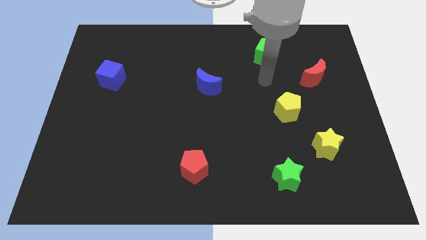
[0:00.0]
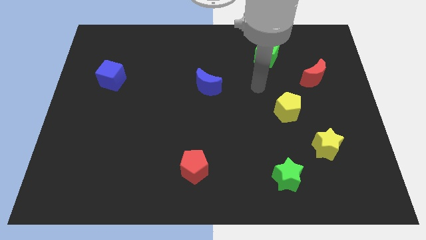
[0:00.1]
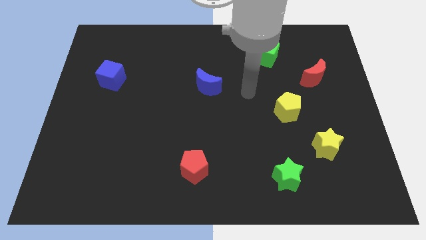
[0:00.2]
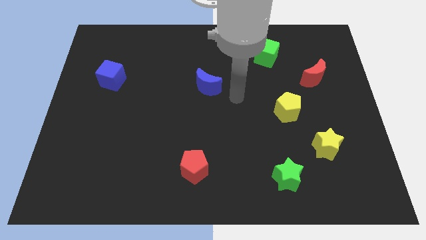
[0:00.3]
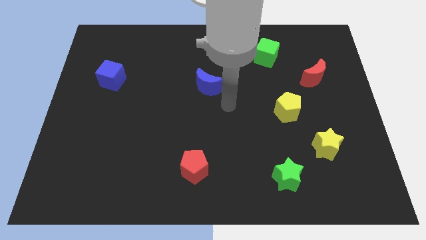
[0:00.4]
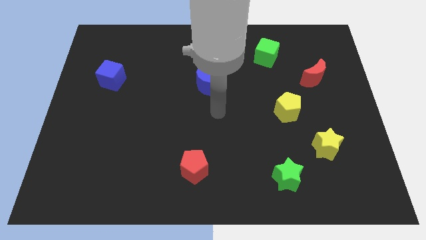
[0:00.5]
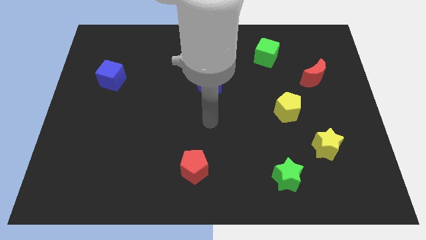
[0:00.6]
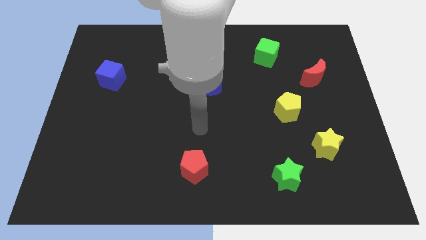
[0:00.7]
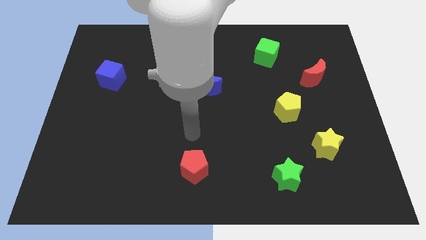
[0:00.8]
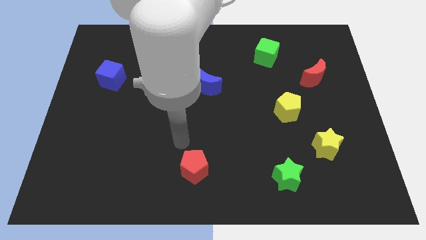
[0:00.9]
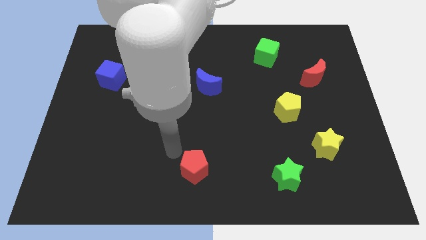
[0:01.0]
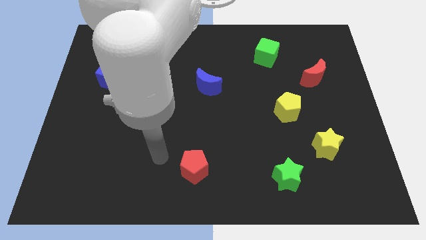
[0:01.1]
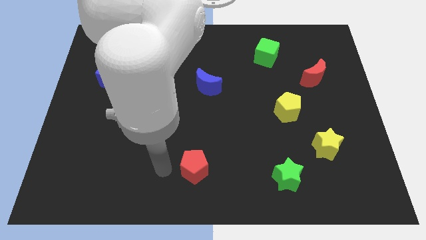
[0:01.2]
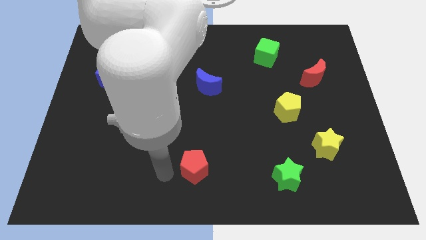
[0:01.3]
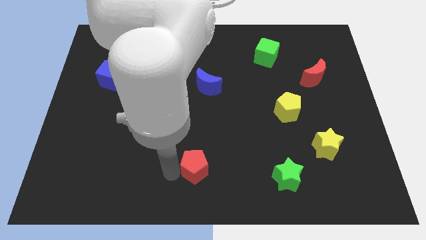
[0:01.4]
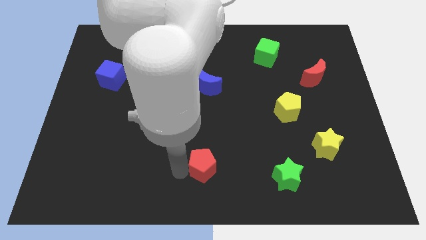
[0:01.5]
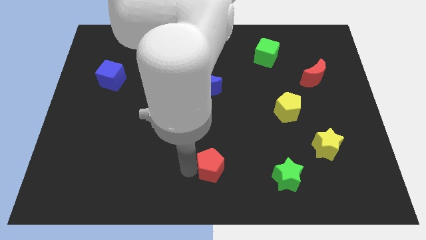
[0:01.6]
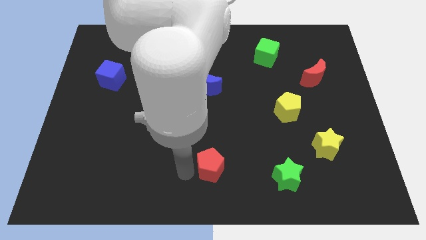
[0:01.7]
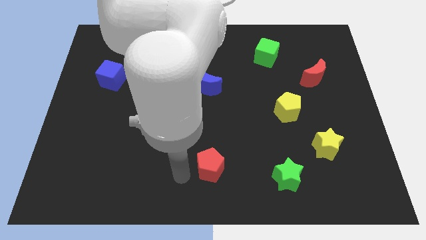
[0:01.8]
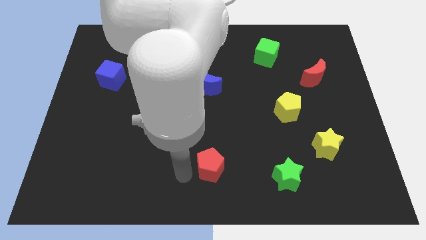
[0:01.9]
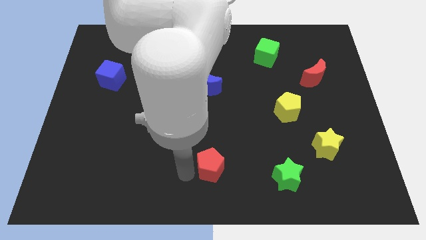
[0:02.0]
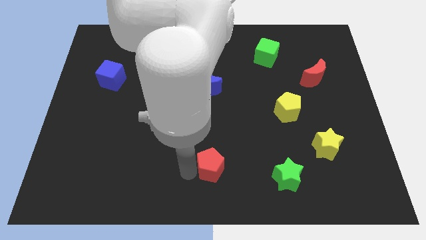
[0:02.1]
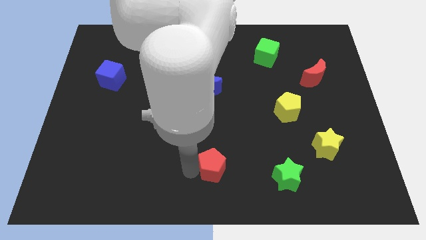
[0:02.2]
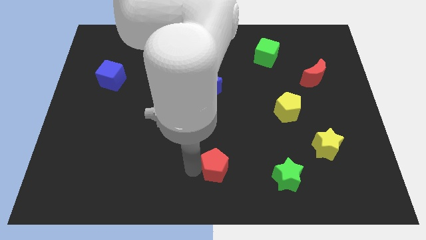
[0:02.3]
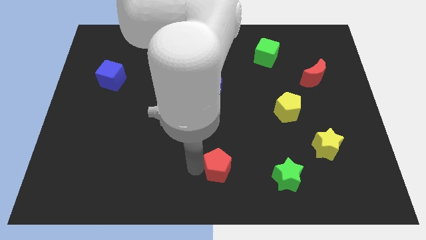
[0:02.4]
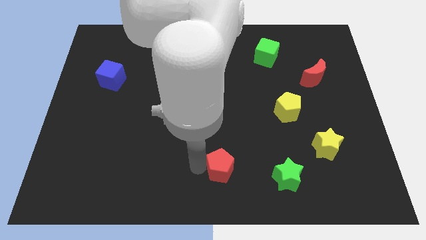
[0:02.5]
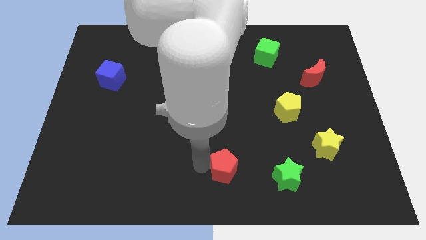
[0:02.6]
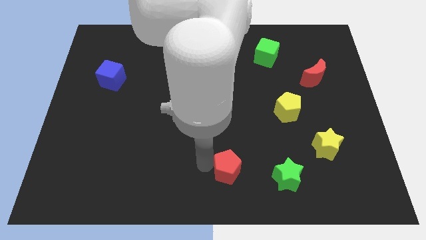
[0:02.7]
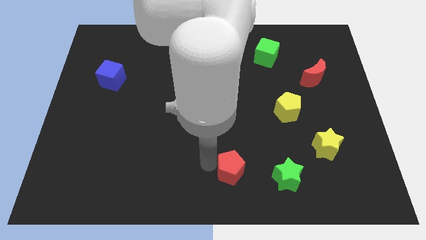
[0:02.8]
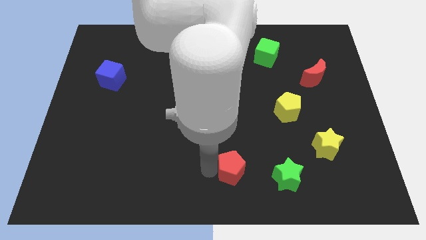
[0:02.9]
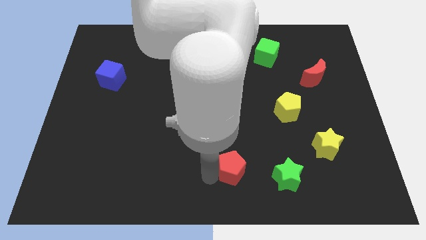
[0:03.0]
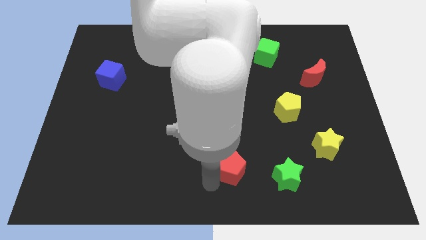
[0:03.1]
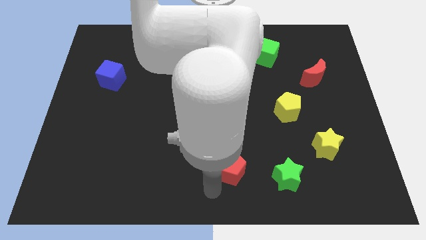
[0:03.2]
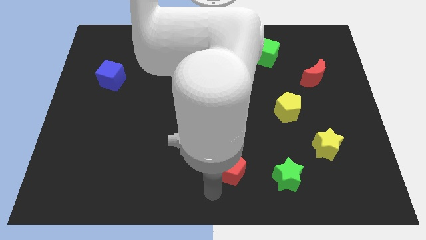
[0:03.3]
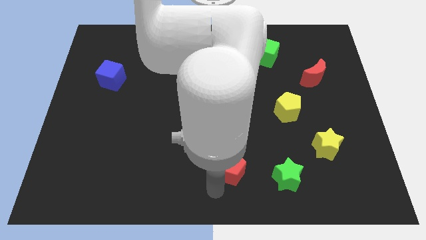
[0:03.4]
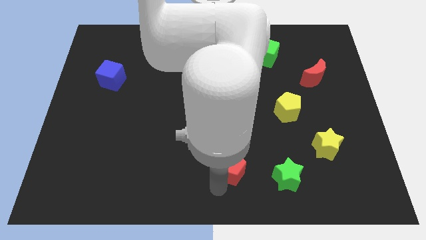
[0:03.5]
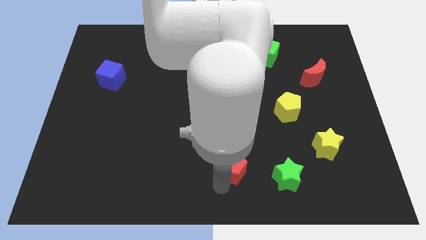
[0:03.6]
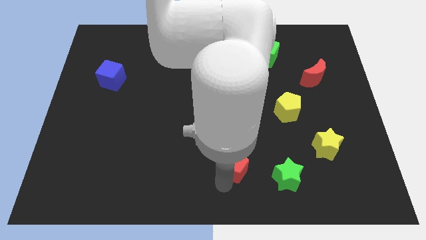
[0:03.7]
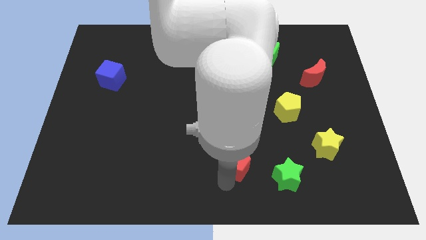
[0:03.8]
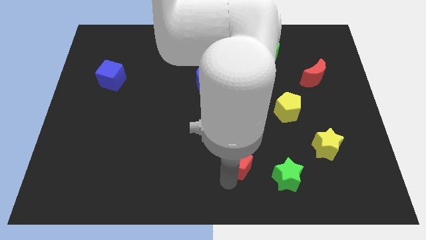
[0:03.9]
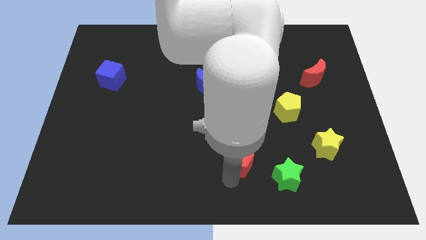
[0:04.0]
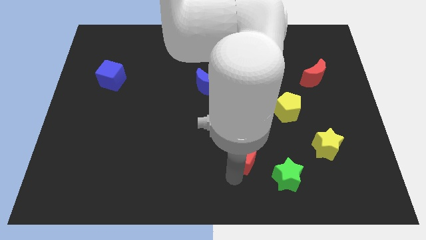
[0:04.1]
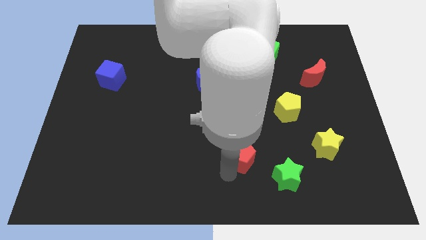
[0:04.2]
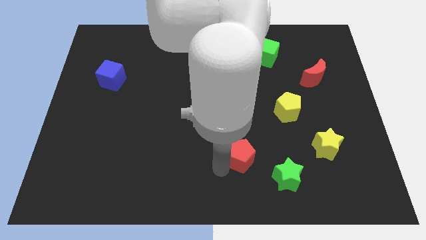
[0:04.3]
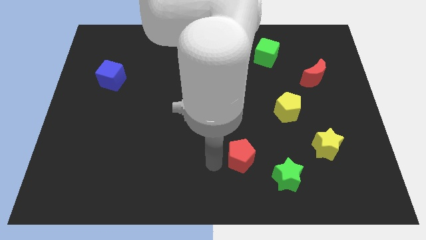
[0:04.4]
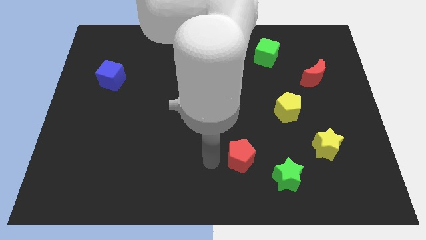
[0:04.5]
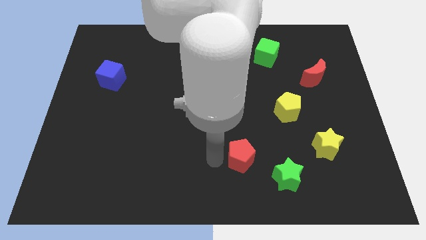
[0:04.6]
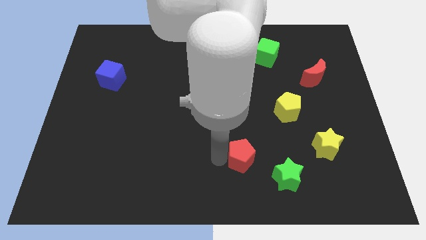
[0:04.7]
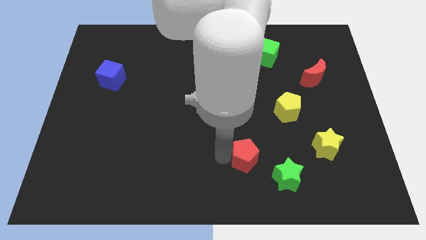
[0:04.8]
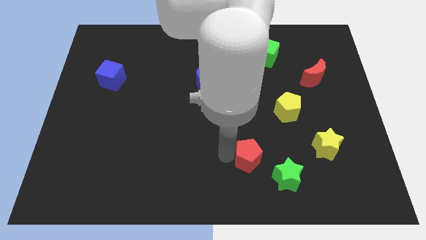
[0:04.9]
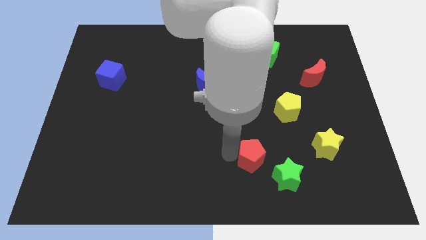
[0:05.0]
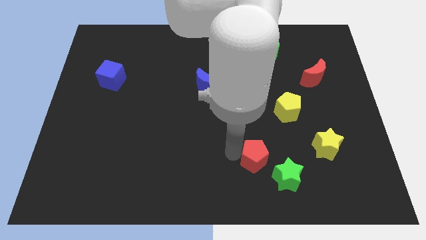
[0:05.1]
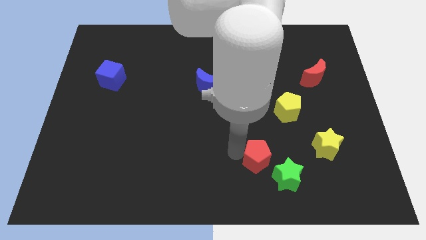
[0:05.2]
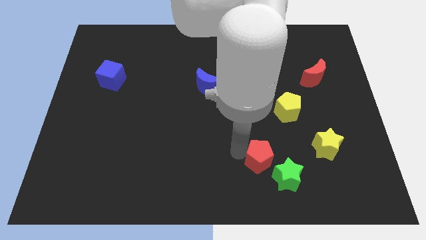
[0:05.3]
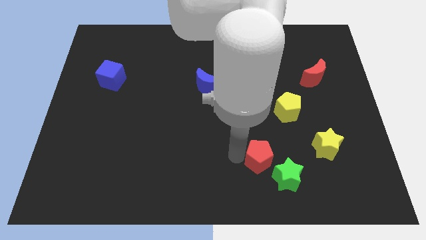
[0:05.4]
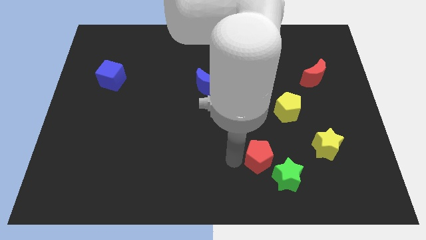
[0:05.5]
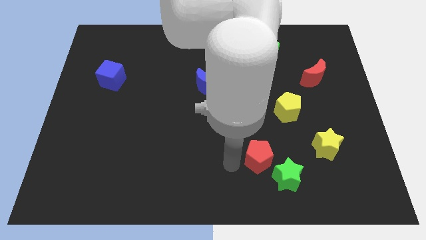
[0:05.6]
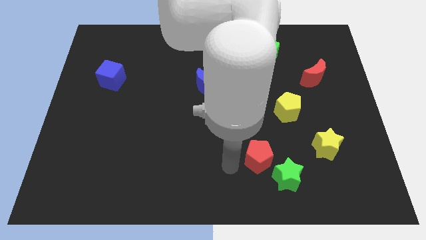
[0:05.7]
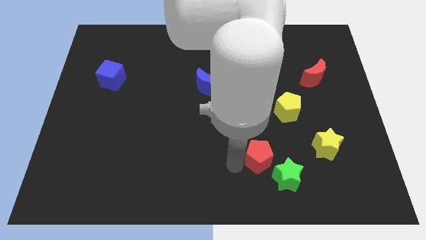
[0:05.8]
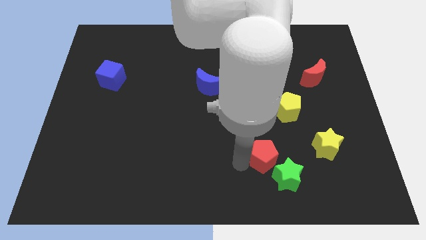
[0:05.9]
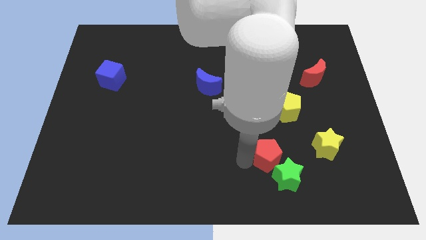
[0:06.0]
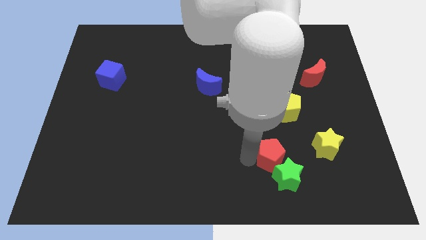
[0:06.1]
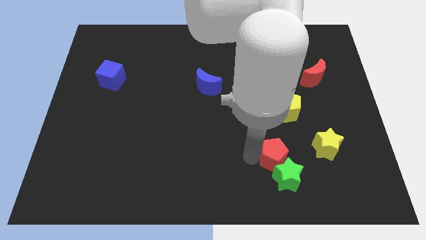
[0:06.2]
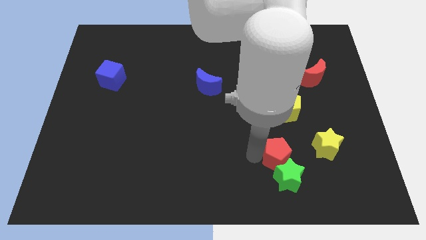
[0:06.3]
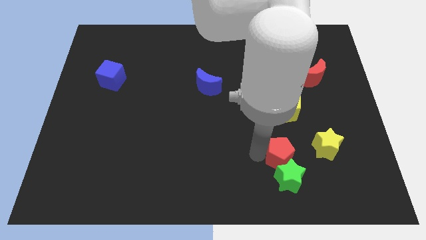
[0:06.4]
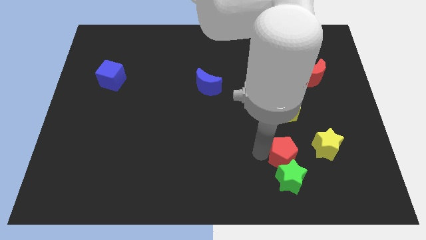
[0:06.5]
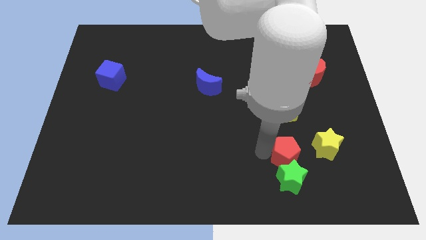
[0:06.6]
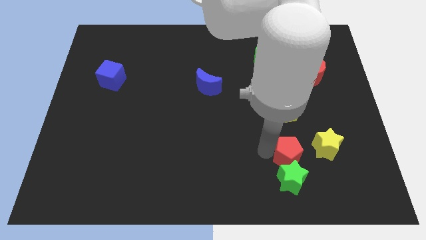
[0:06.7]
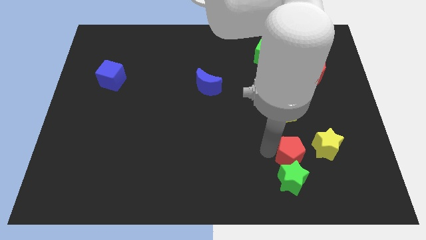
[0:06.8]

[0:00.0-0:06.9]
slide the red pentagon to the right

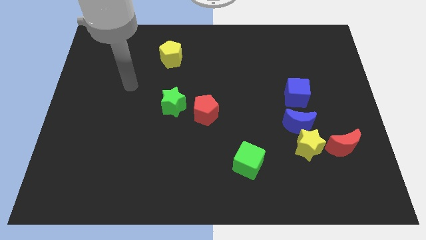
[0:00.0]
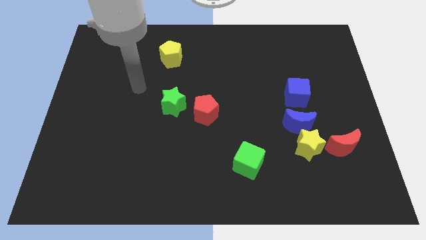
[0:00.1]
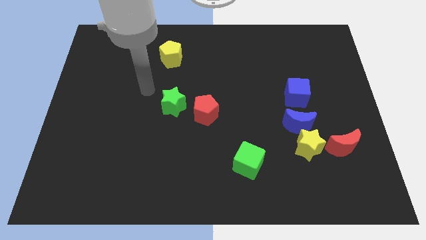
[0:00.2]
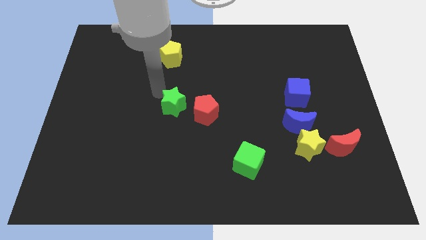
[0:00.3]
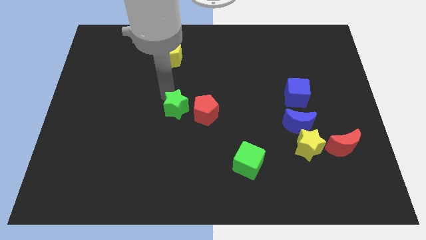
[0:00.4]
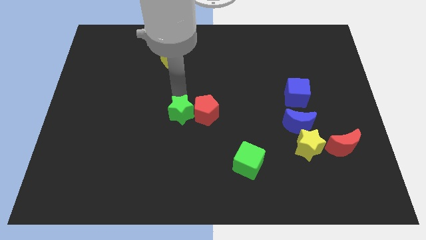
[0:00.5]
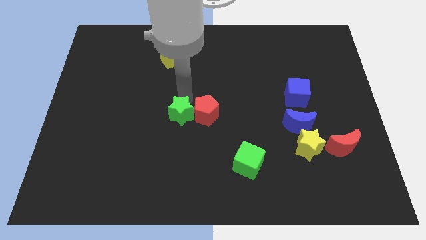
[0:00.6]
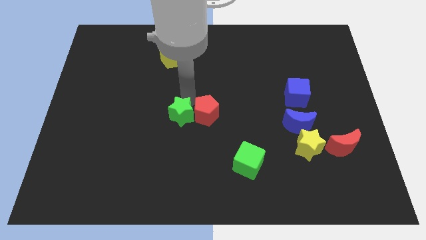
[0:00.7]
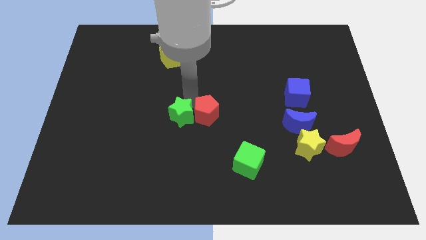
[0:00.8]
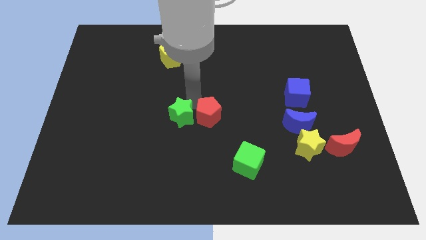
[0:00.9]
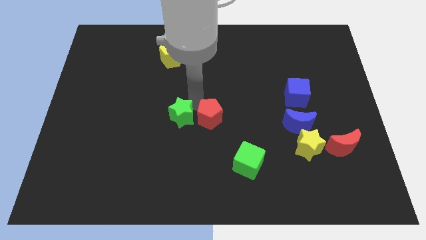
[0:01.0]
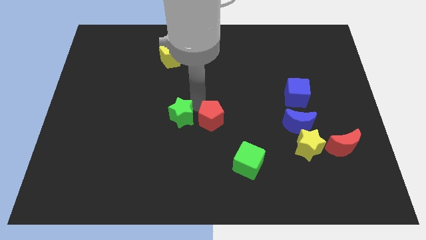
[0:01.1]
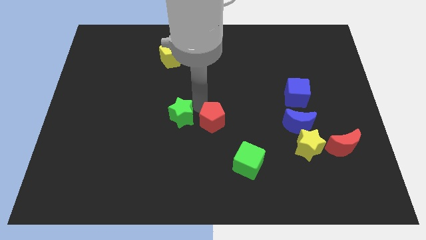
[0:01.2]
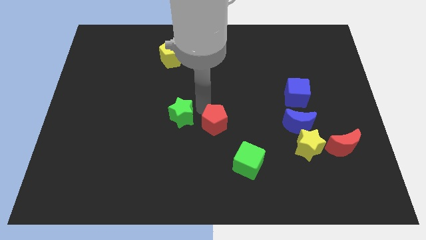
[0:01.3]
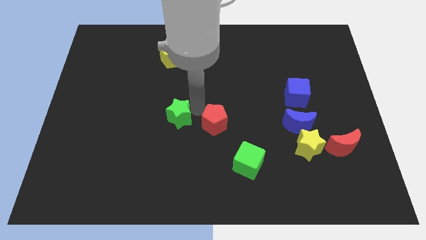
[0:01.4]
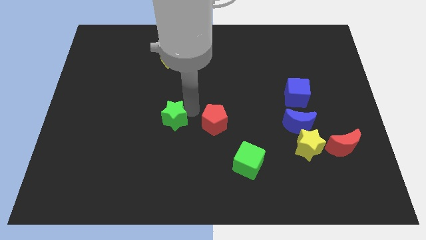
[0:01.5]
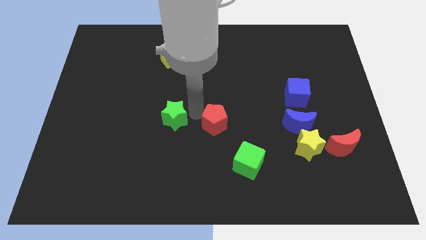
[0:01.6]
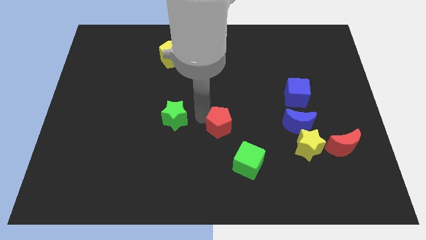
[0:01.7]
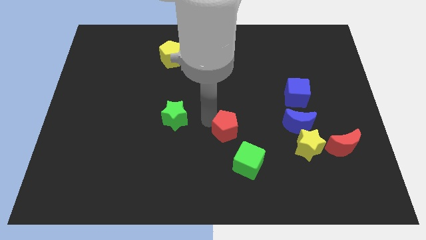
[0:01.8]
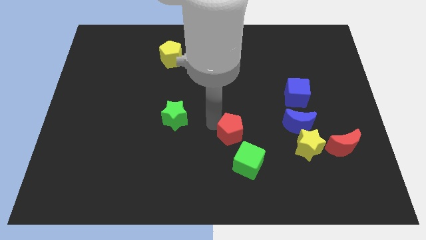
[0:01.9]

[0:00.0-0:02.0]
slightly slide the red pentagon downwards and to the right diagonally
